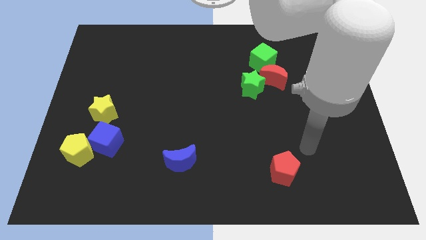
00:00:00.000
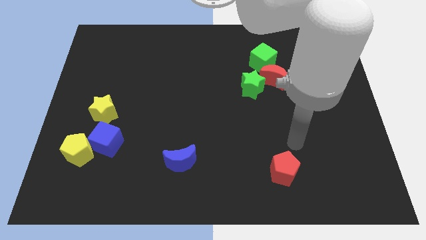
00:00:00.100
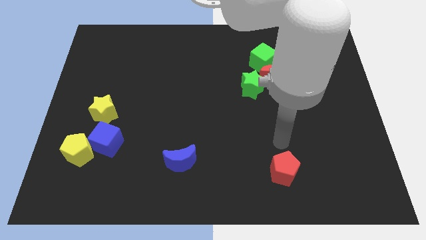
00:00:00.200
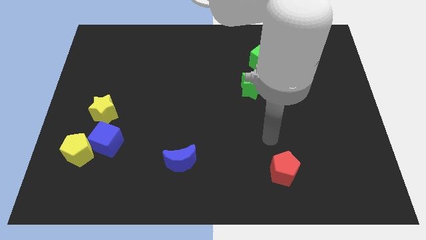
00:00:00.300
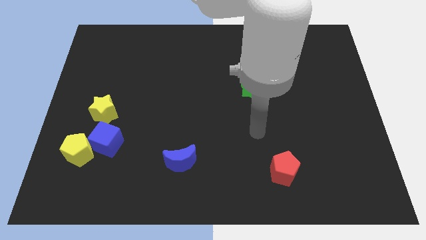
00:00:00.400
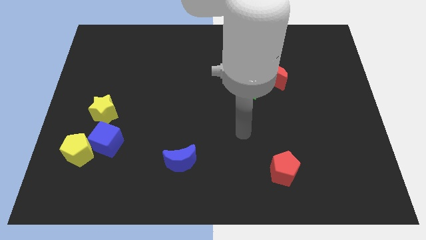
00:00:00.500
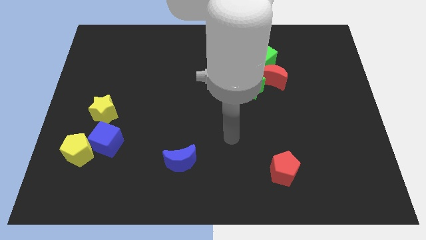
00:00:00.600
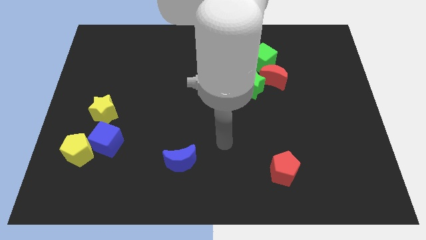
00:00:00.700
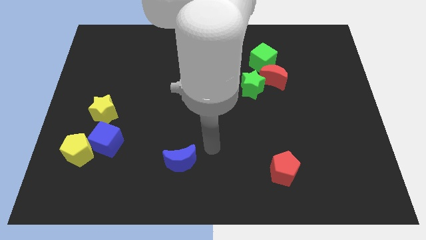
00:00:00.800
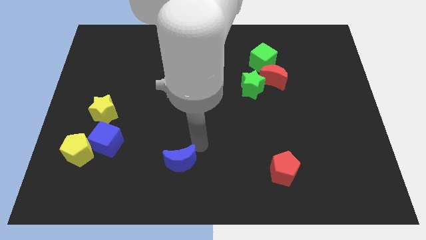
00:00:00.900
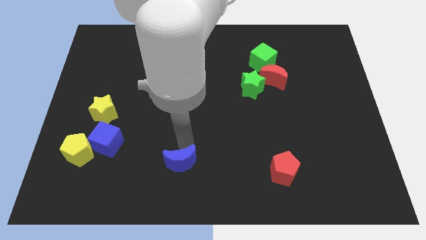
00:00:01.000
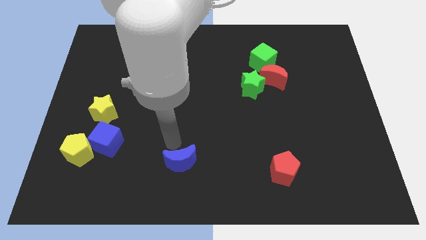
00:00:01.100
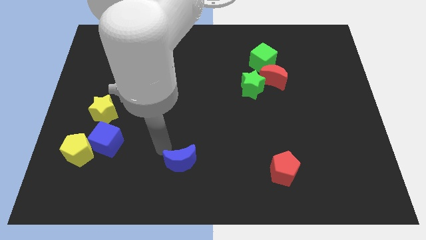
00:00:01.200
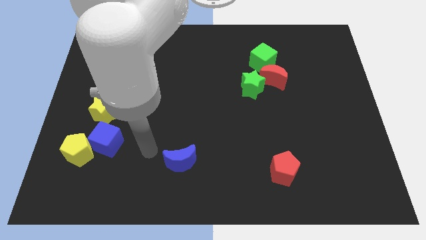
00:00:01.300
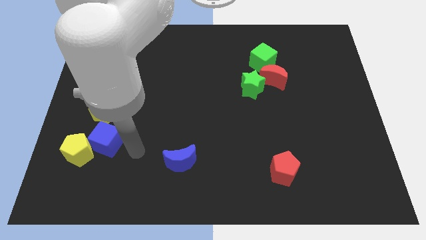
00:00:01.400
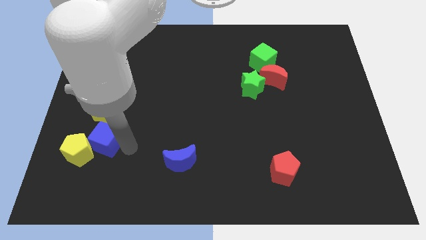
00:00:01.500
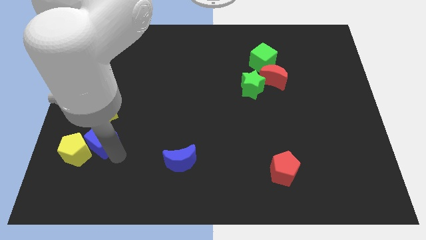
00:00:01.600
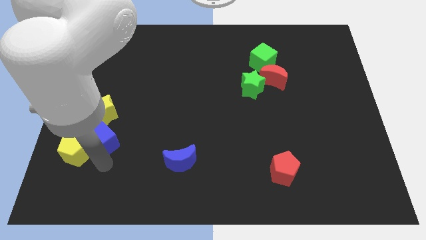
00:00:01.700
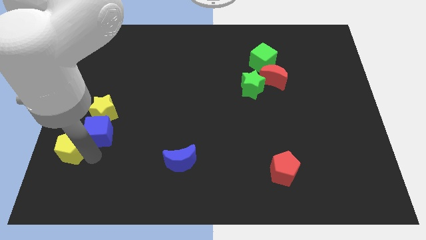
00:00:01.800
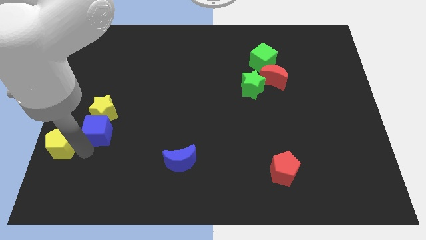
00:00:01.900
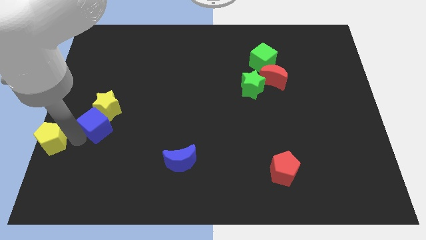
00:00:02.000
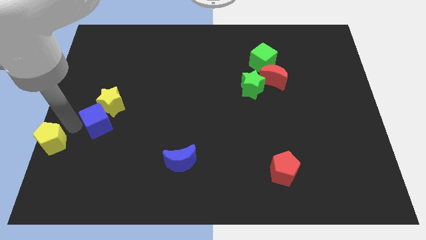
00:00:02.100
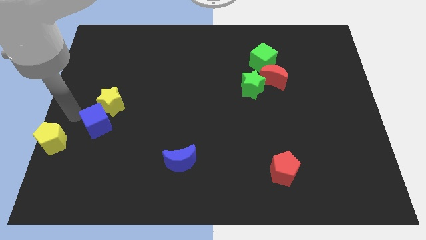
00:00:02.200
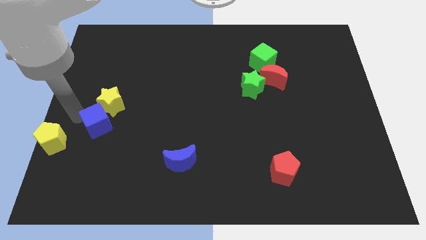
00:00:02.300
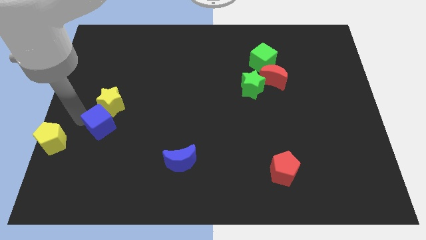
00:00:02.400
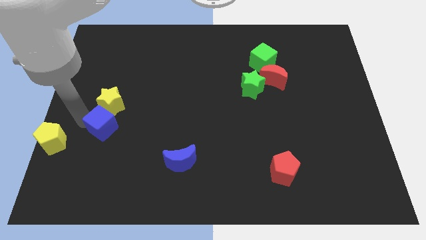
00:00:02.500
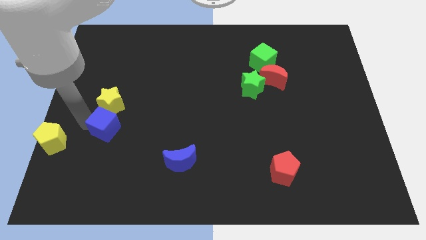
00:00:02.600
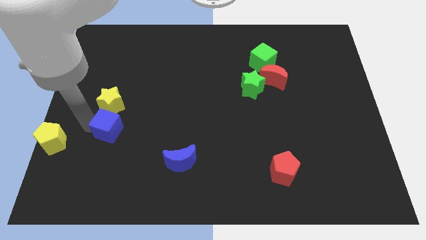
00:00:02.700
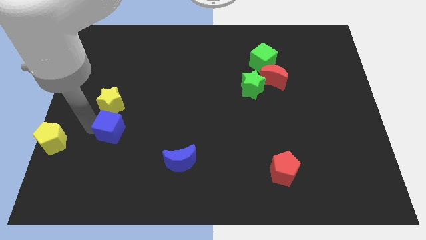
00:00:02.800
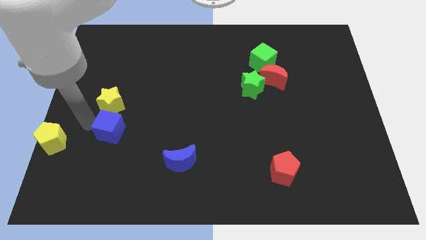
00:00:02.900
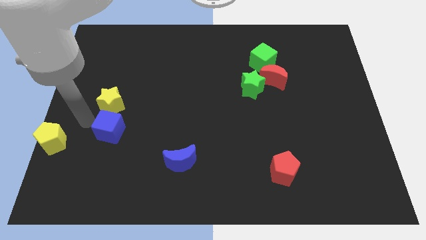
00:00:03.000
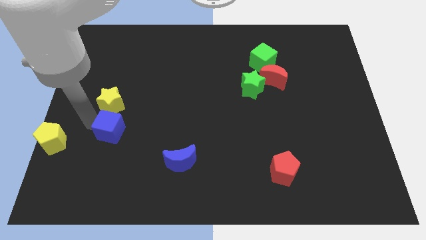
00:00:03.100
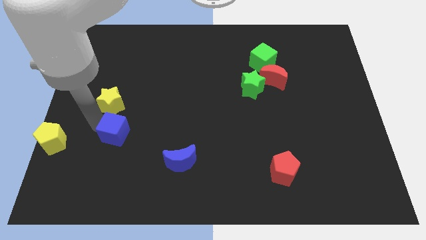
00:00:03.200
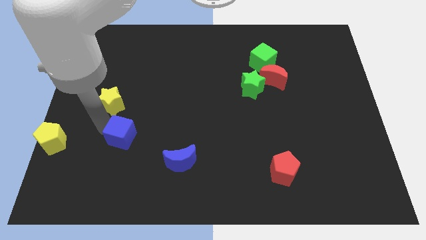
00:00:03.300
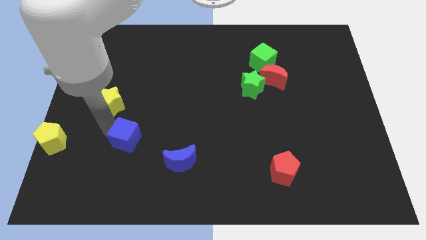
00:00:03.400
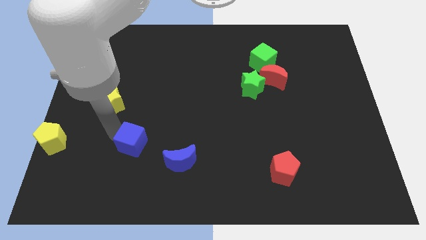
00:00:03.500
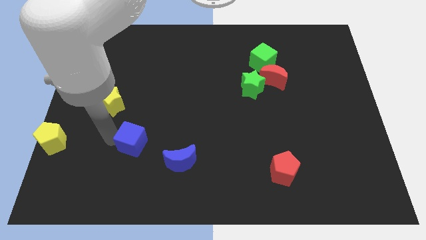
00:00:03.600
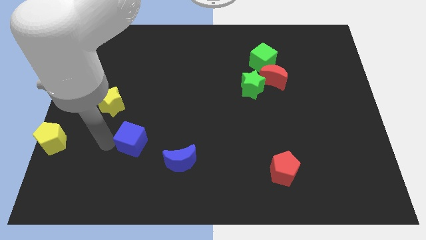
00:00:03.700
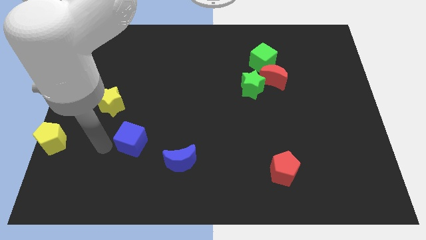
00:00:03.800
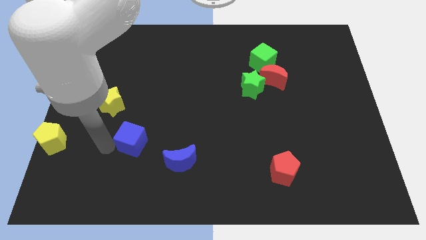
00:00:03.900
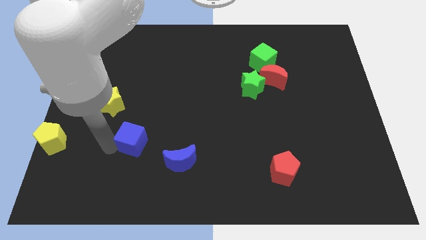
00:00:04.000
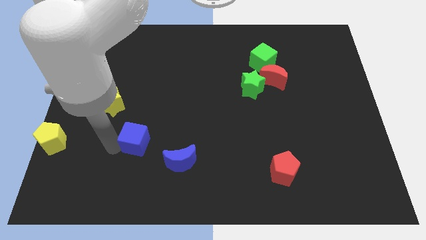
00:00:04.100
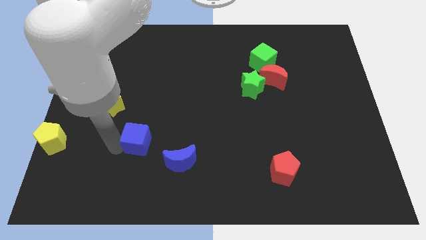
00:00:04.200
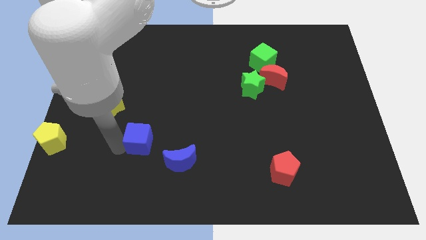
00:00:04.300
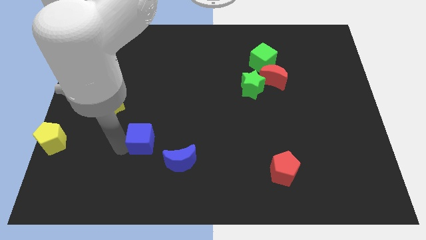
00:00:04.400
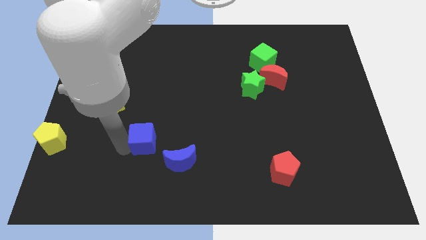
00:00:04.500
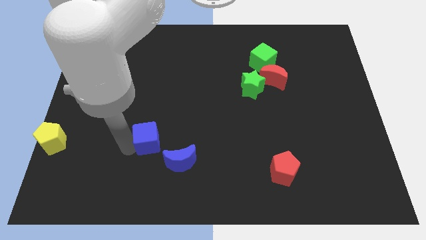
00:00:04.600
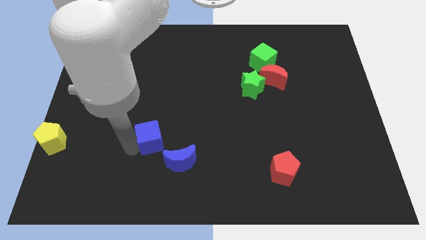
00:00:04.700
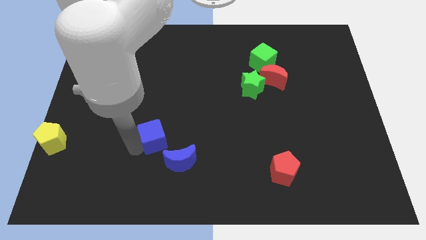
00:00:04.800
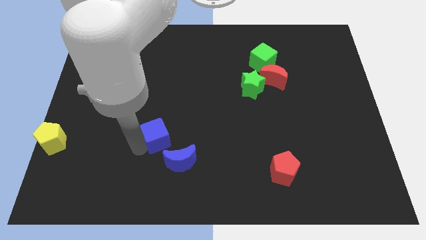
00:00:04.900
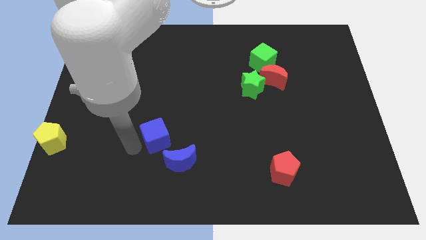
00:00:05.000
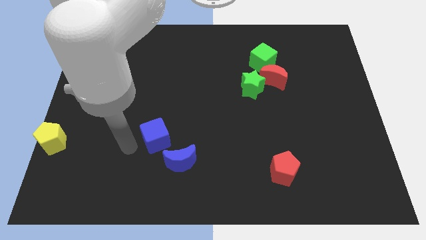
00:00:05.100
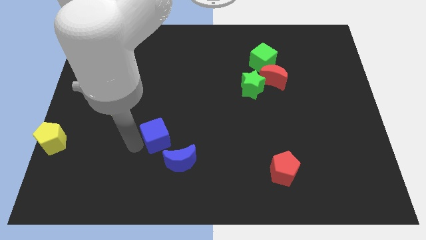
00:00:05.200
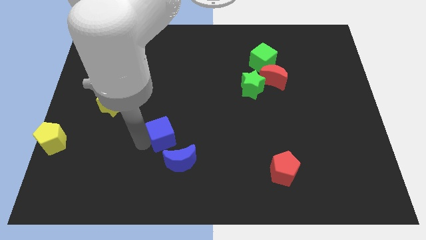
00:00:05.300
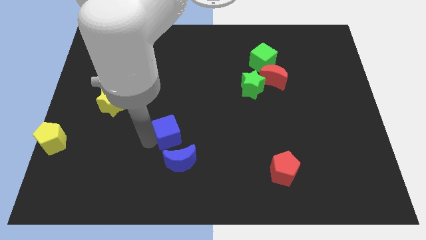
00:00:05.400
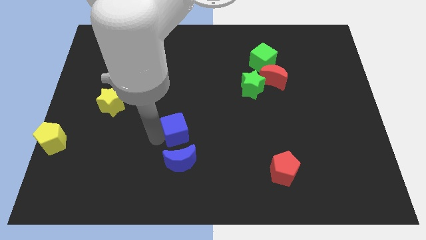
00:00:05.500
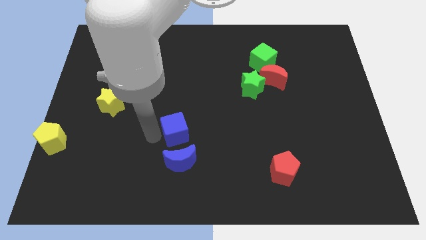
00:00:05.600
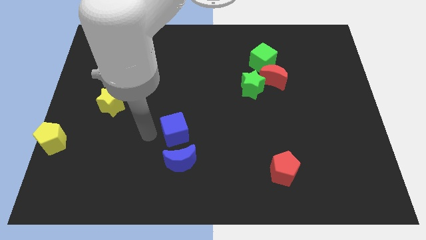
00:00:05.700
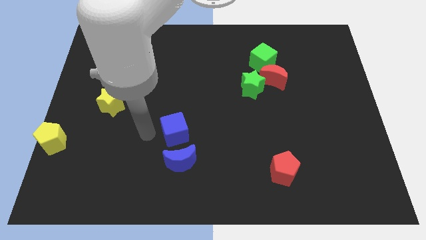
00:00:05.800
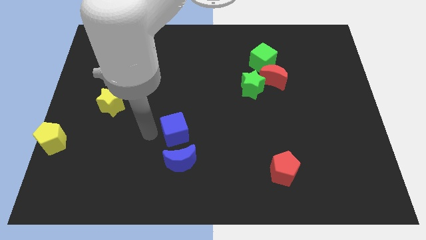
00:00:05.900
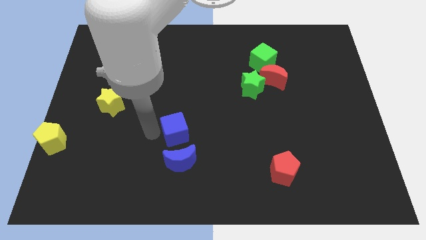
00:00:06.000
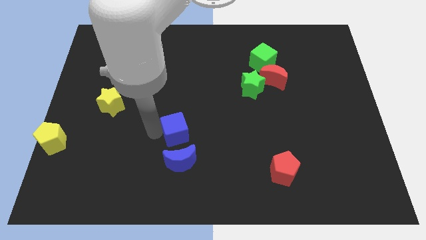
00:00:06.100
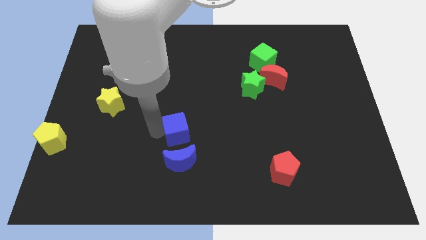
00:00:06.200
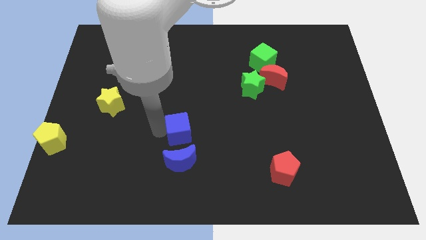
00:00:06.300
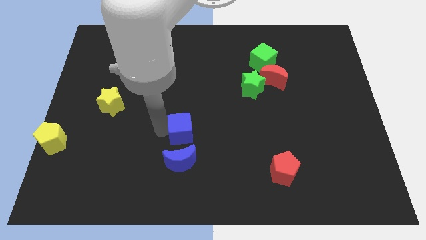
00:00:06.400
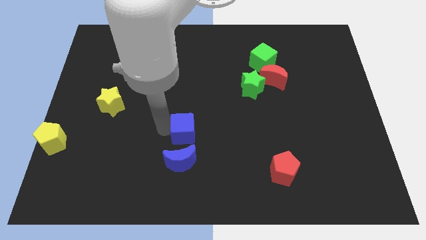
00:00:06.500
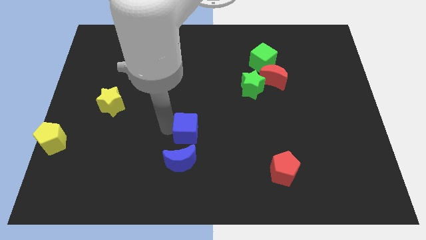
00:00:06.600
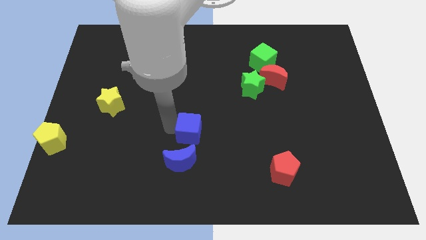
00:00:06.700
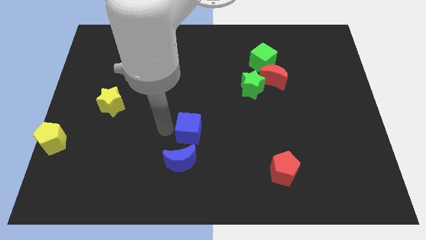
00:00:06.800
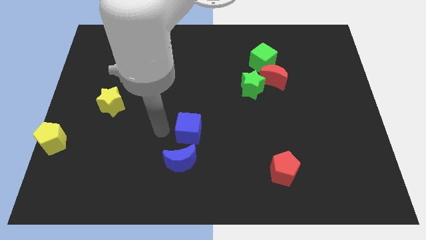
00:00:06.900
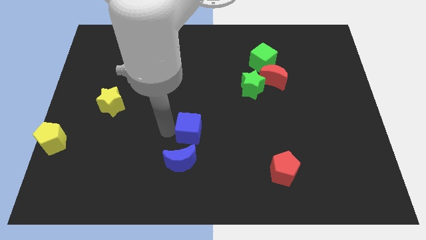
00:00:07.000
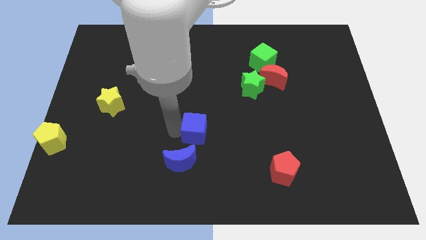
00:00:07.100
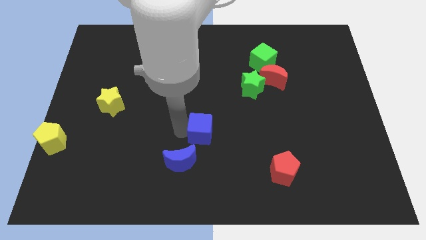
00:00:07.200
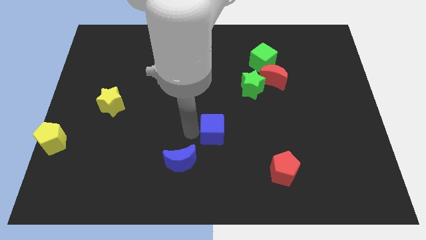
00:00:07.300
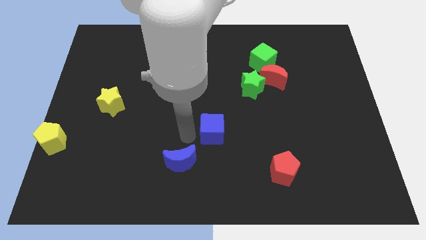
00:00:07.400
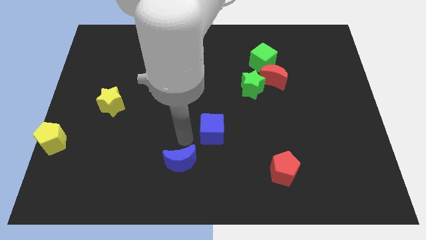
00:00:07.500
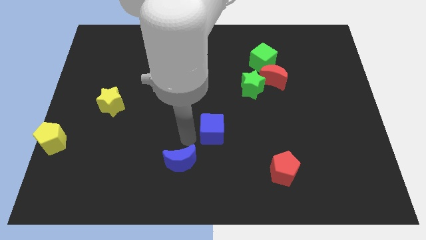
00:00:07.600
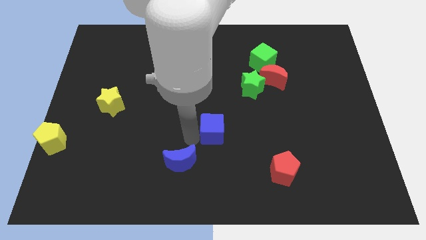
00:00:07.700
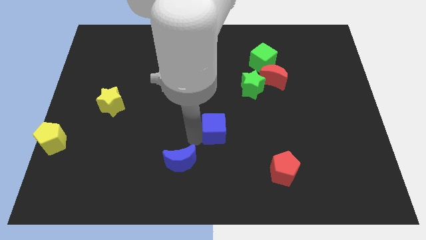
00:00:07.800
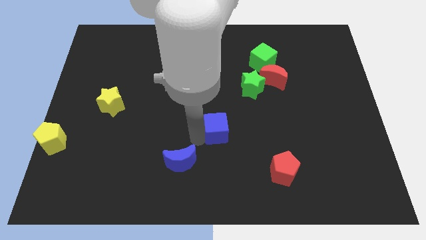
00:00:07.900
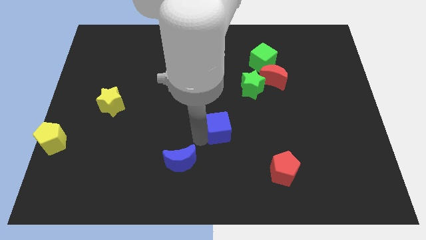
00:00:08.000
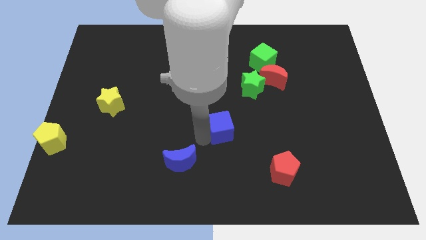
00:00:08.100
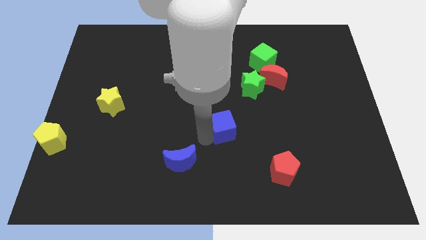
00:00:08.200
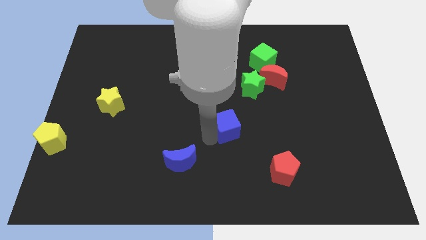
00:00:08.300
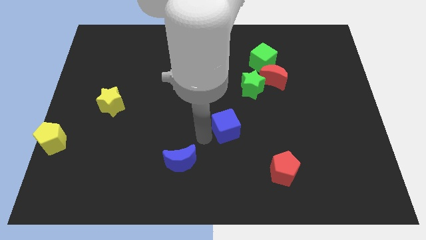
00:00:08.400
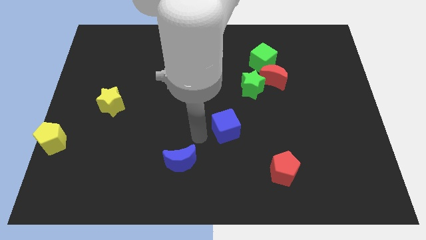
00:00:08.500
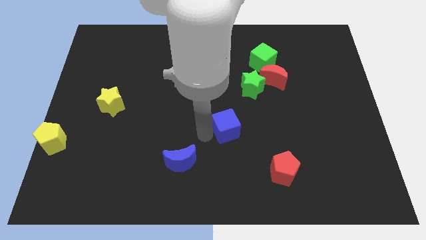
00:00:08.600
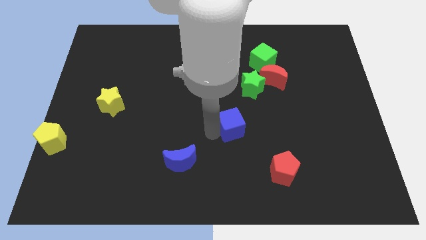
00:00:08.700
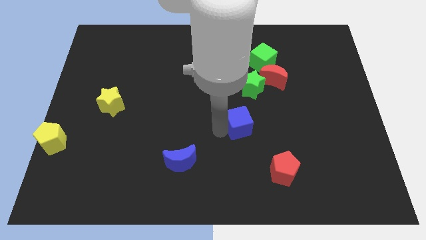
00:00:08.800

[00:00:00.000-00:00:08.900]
put the blue cube to the bottom of the green star
